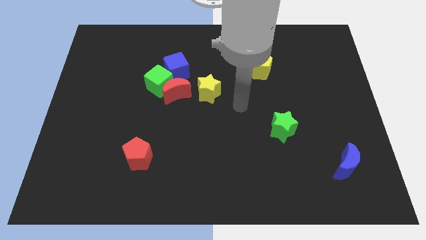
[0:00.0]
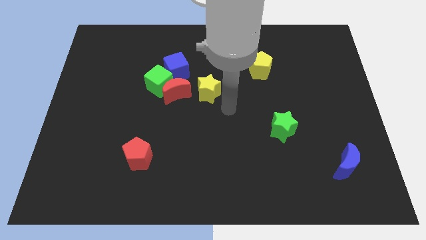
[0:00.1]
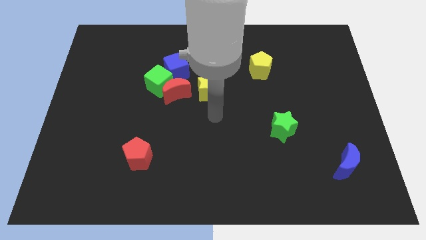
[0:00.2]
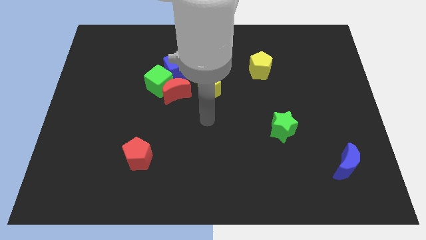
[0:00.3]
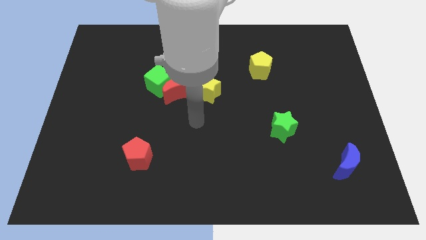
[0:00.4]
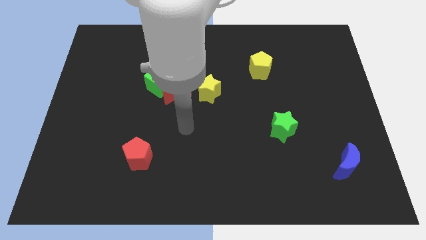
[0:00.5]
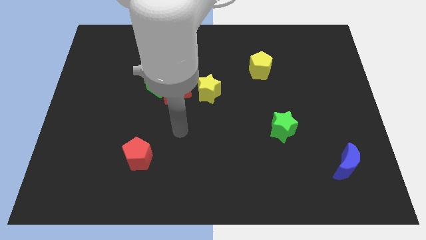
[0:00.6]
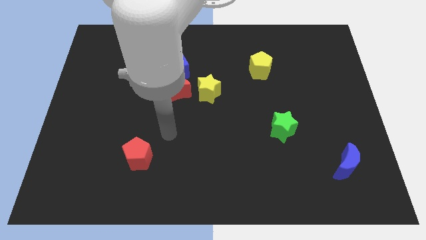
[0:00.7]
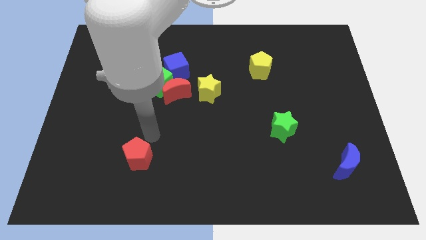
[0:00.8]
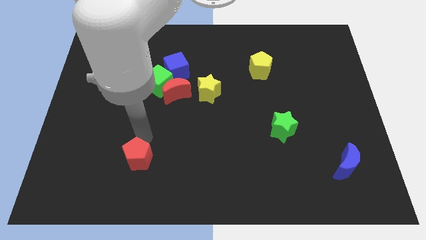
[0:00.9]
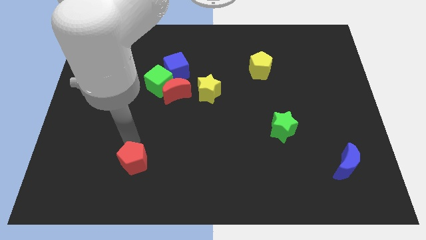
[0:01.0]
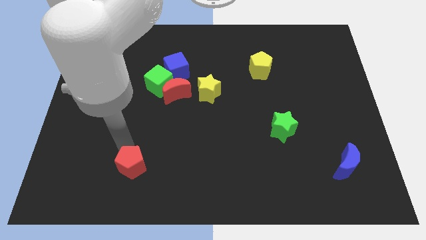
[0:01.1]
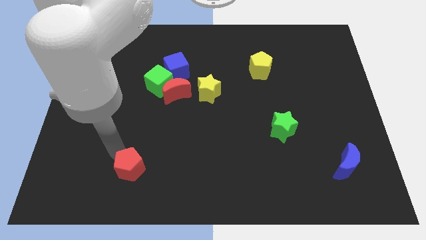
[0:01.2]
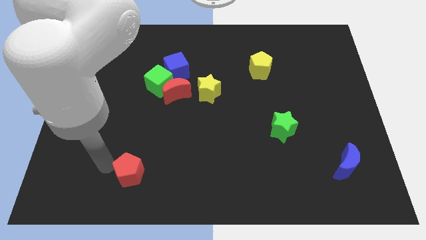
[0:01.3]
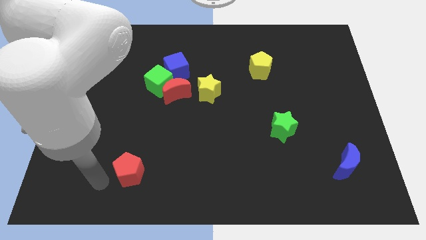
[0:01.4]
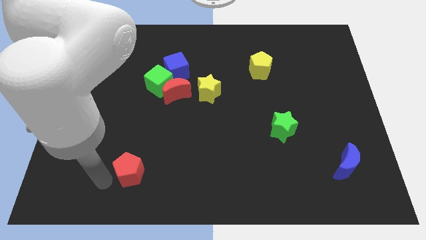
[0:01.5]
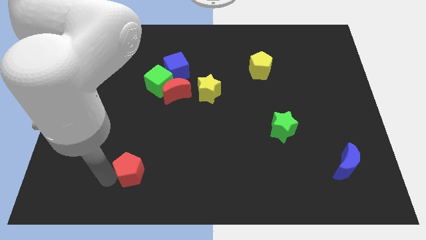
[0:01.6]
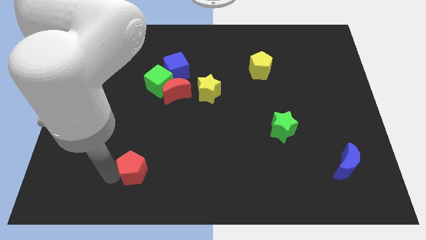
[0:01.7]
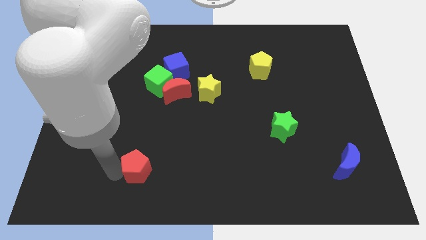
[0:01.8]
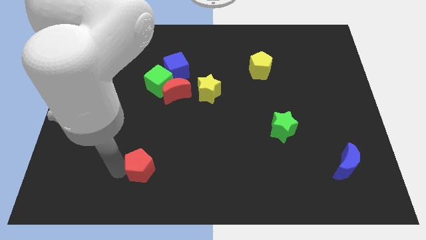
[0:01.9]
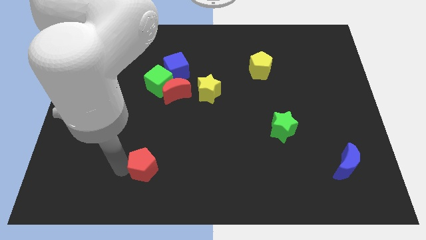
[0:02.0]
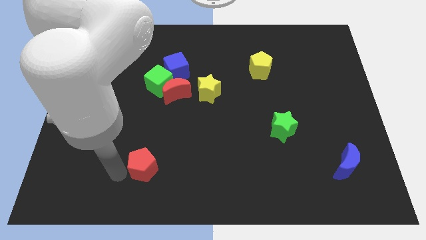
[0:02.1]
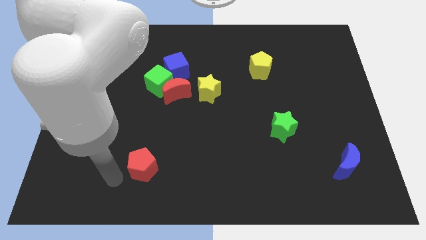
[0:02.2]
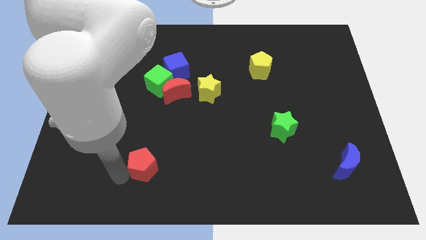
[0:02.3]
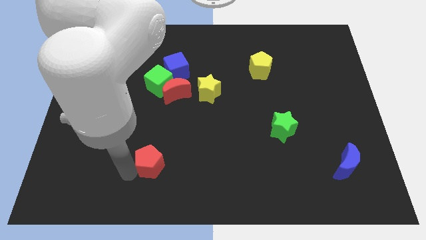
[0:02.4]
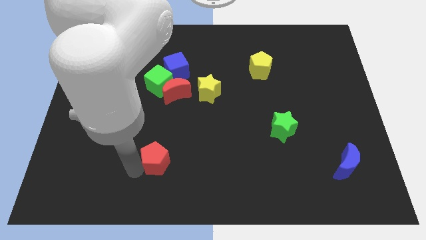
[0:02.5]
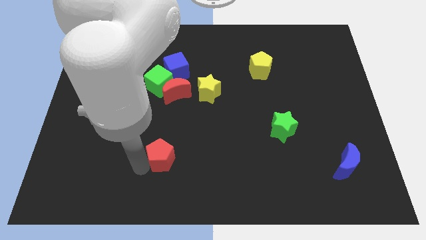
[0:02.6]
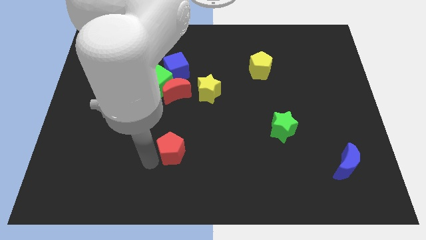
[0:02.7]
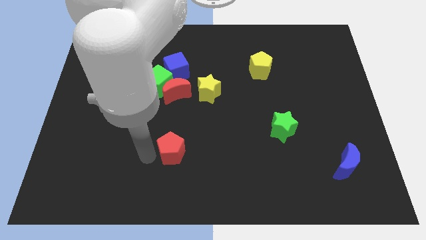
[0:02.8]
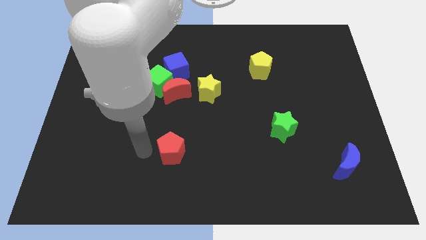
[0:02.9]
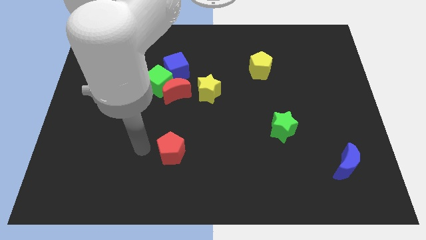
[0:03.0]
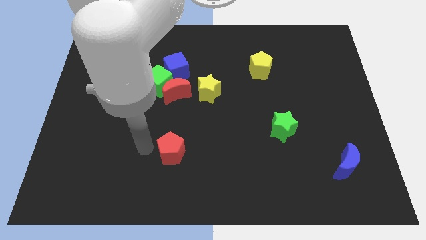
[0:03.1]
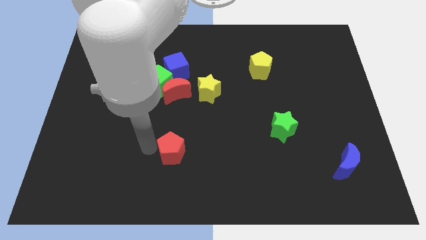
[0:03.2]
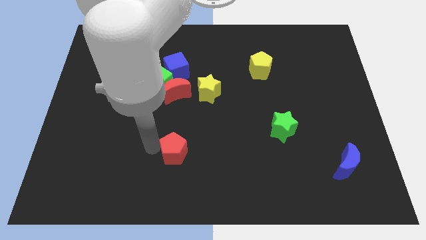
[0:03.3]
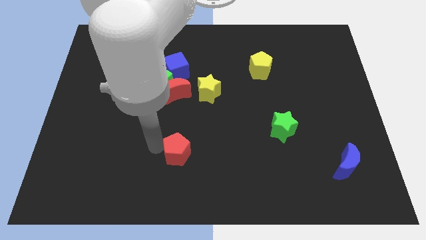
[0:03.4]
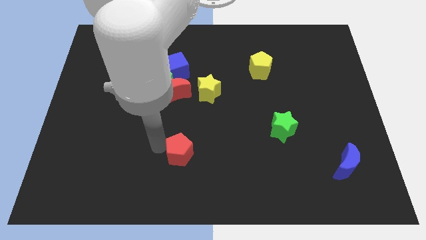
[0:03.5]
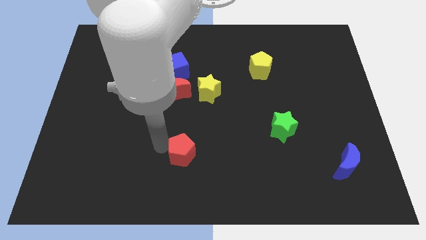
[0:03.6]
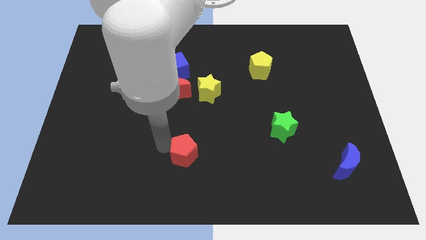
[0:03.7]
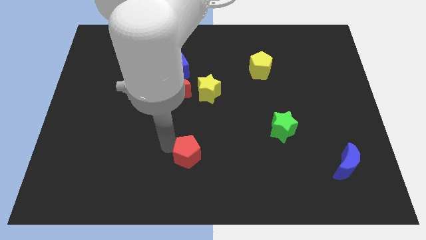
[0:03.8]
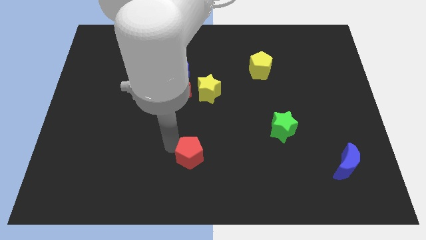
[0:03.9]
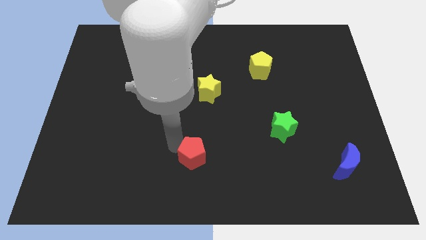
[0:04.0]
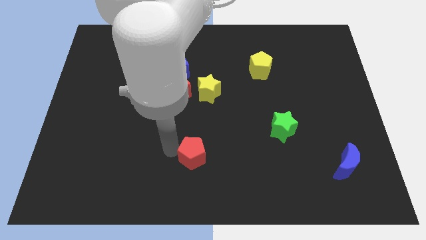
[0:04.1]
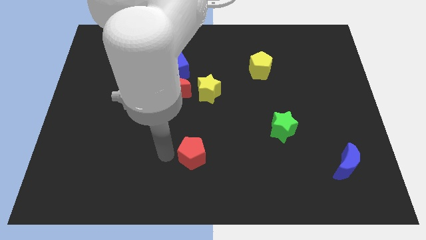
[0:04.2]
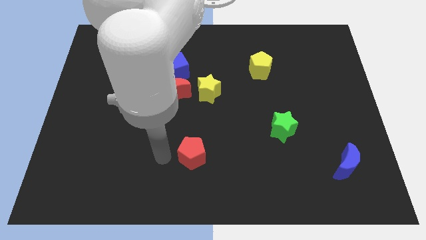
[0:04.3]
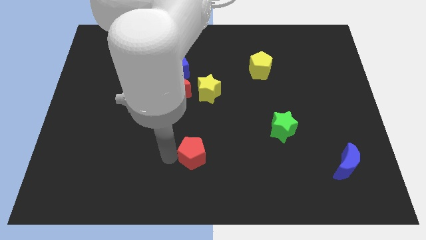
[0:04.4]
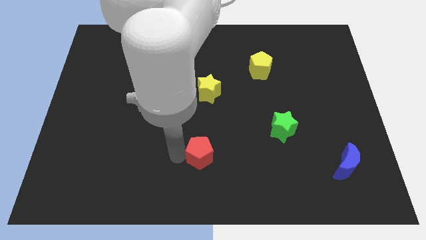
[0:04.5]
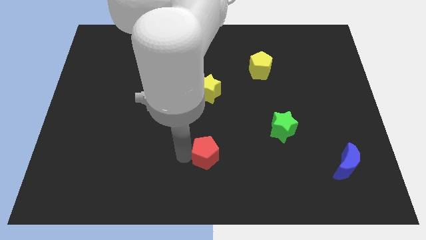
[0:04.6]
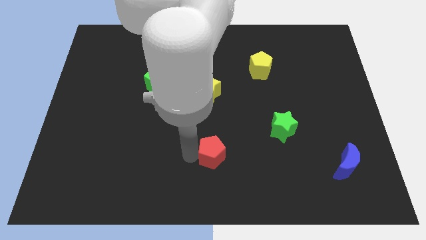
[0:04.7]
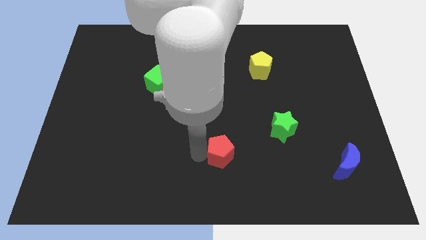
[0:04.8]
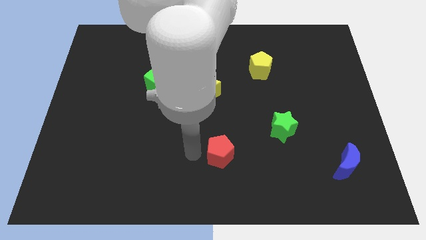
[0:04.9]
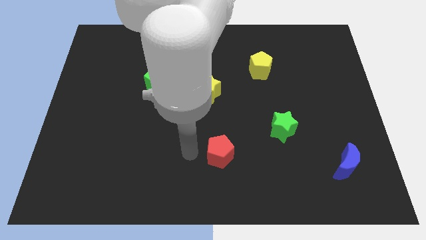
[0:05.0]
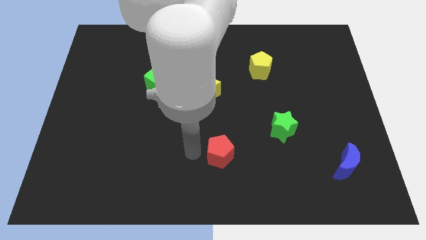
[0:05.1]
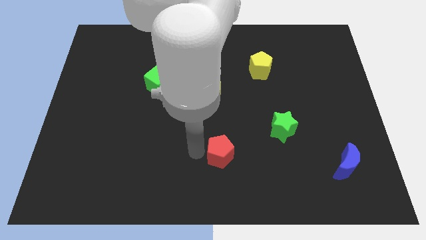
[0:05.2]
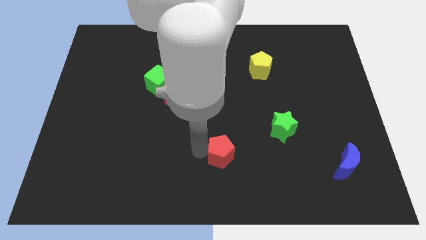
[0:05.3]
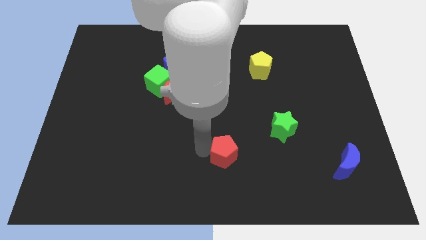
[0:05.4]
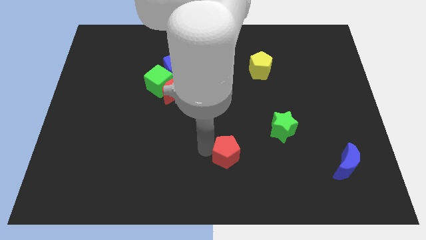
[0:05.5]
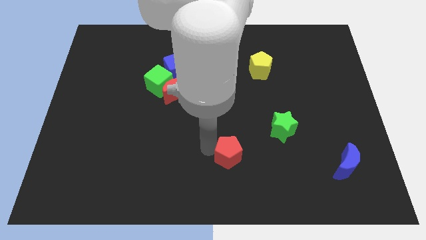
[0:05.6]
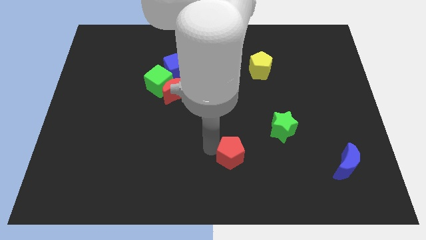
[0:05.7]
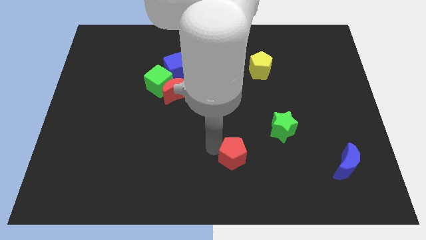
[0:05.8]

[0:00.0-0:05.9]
slide the red pentagon to the right

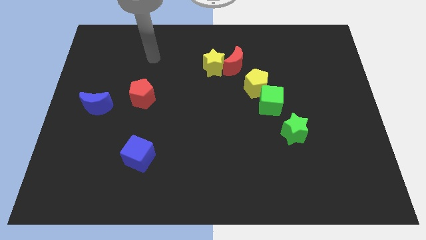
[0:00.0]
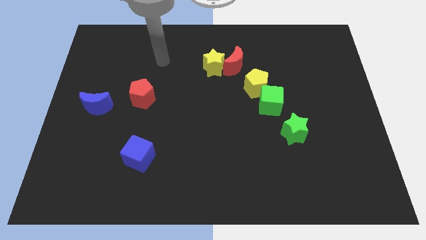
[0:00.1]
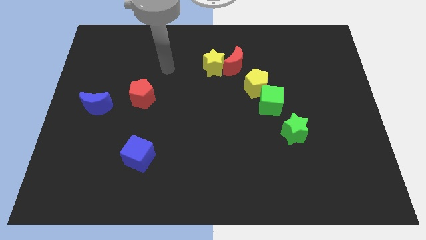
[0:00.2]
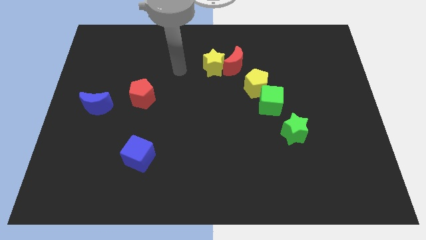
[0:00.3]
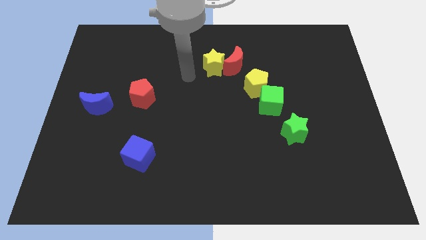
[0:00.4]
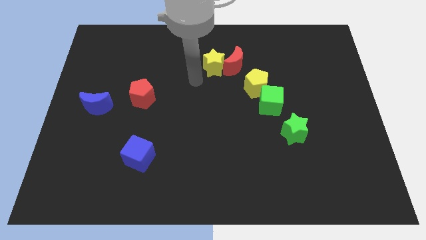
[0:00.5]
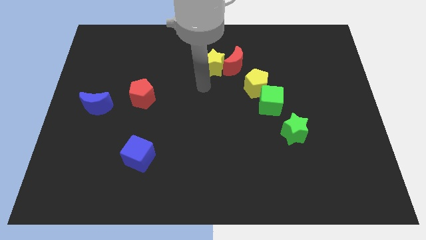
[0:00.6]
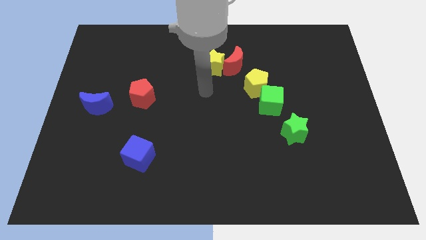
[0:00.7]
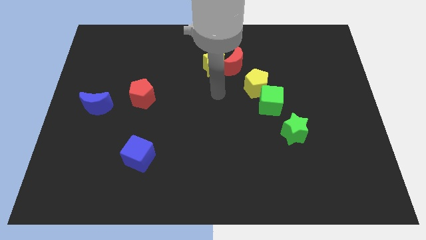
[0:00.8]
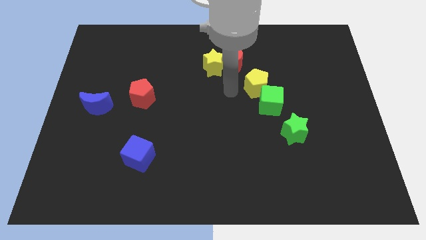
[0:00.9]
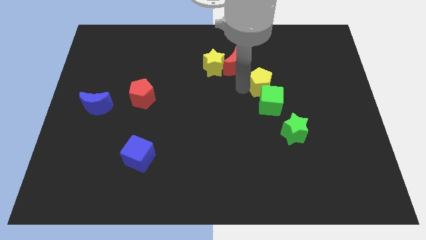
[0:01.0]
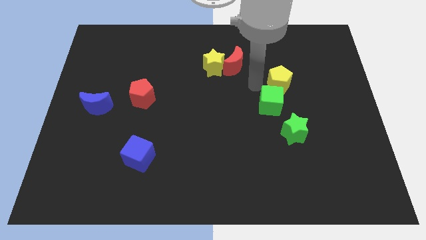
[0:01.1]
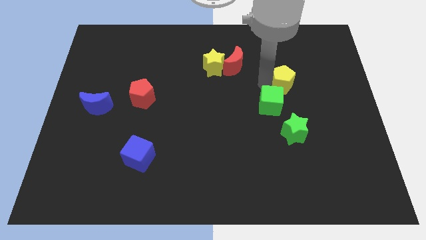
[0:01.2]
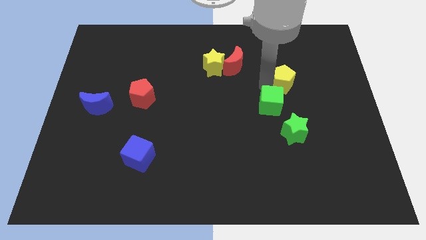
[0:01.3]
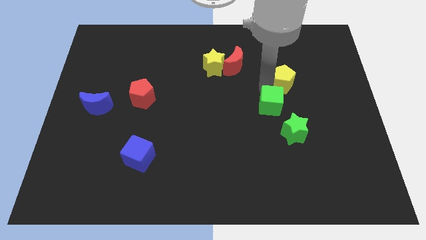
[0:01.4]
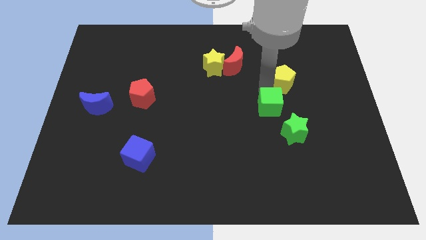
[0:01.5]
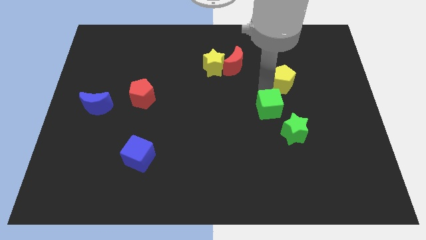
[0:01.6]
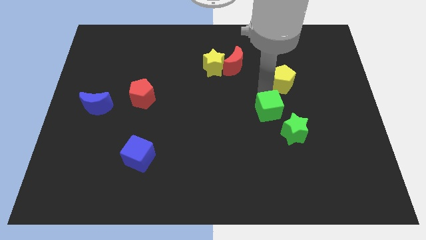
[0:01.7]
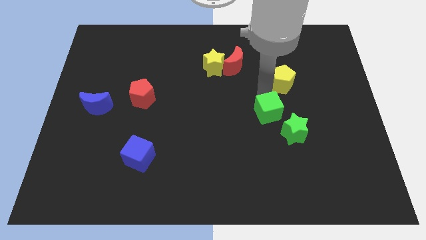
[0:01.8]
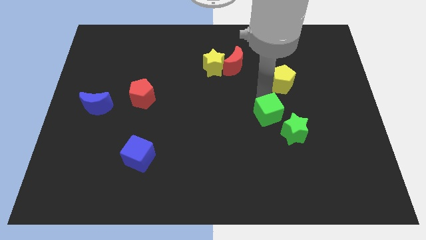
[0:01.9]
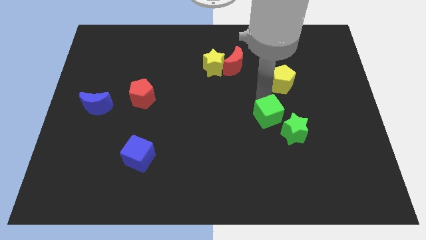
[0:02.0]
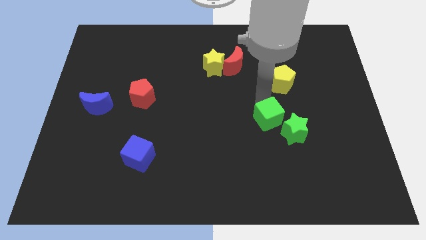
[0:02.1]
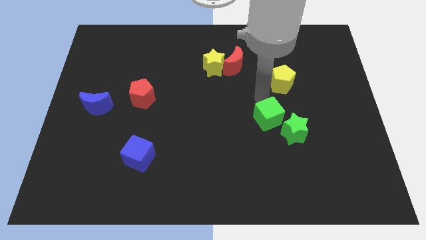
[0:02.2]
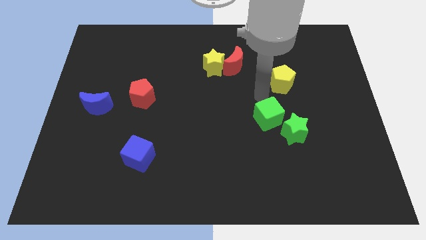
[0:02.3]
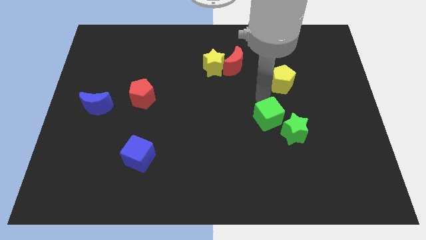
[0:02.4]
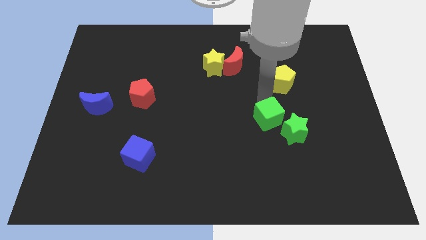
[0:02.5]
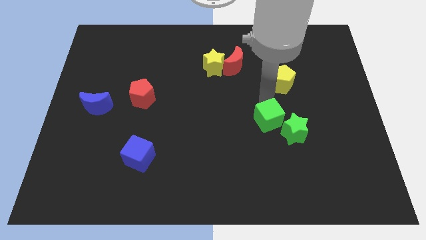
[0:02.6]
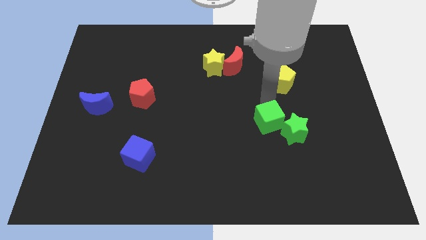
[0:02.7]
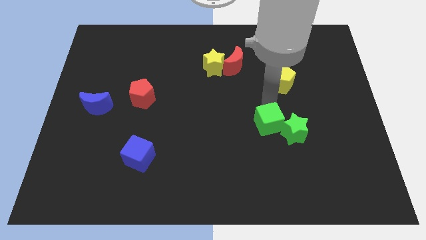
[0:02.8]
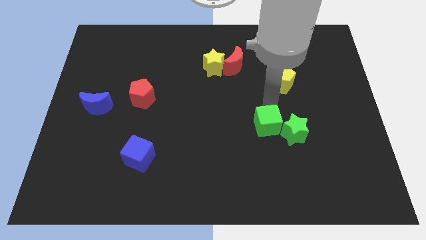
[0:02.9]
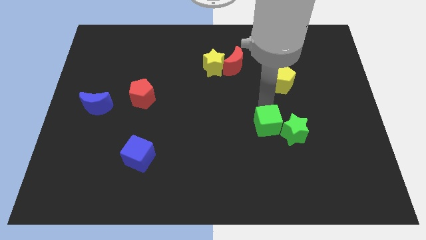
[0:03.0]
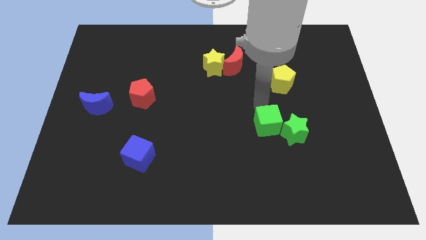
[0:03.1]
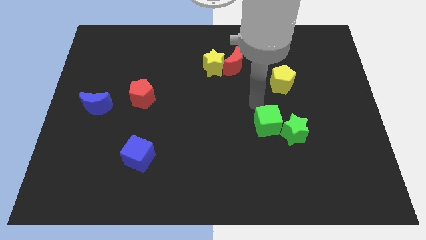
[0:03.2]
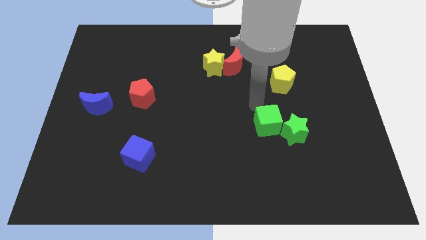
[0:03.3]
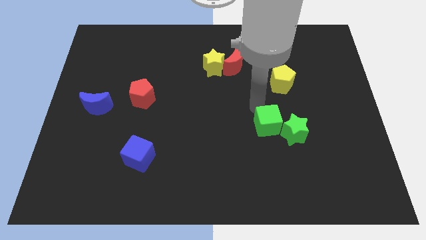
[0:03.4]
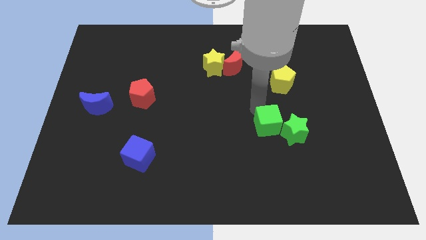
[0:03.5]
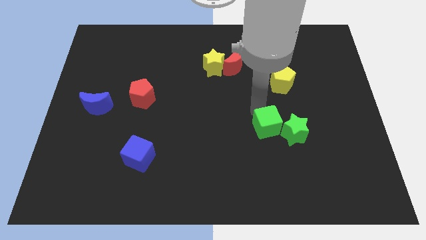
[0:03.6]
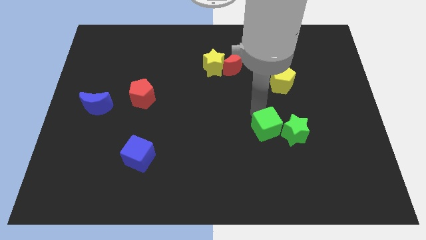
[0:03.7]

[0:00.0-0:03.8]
move the green cube a little bit down
